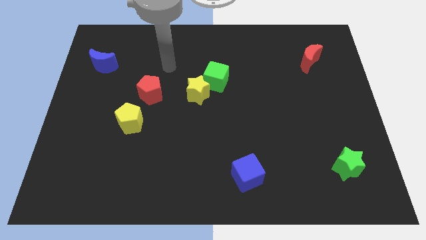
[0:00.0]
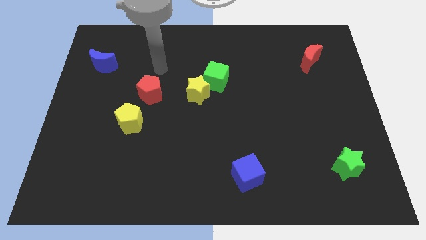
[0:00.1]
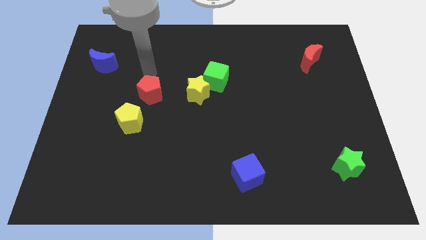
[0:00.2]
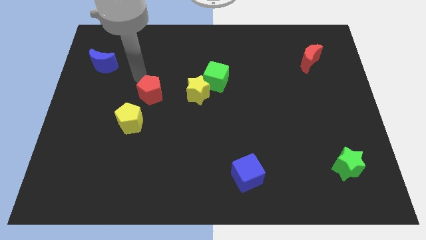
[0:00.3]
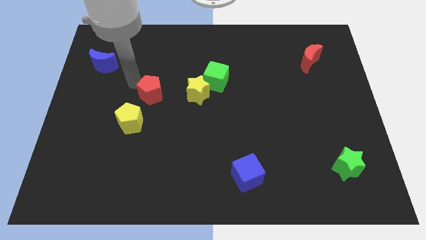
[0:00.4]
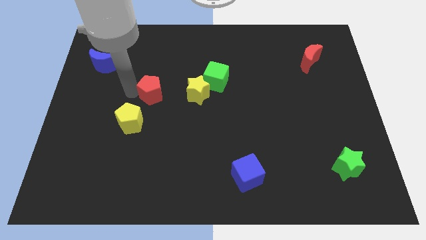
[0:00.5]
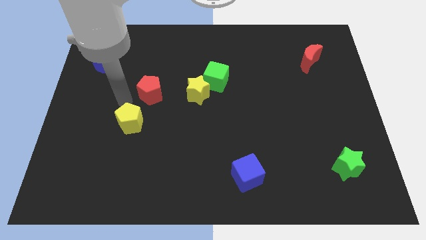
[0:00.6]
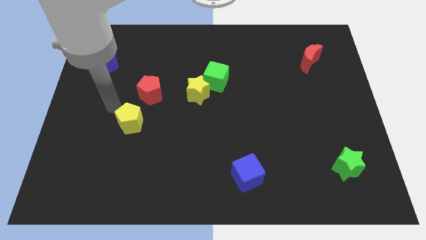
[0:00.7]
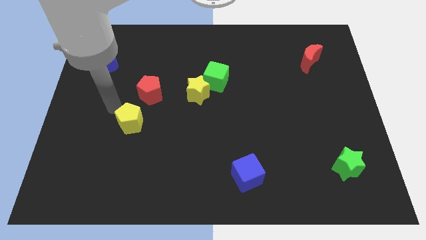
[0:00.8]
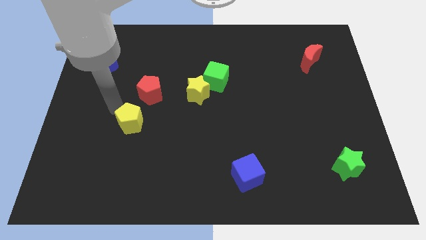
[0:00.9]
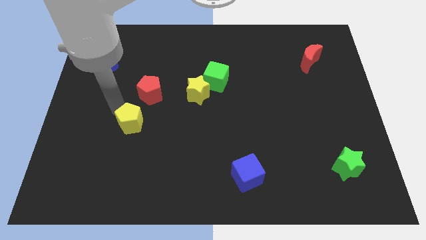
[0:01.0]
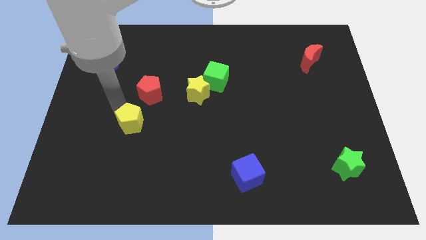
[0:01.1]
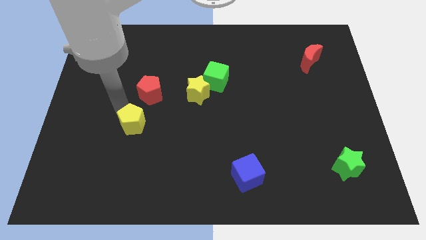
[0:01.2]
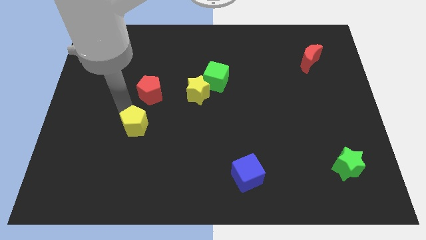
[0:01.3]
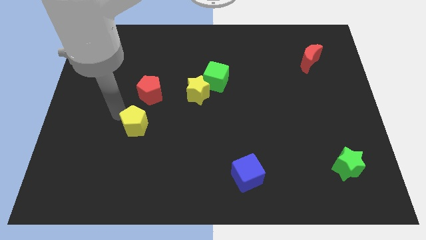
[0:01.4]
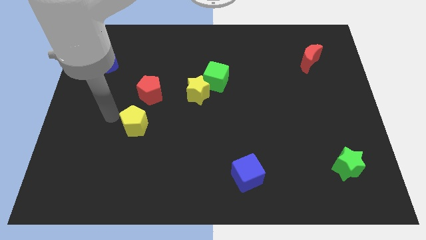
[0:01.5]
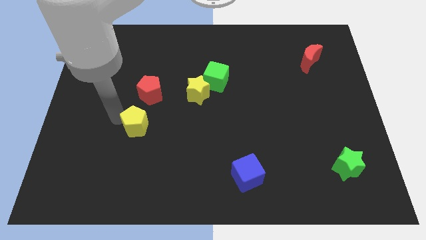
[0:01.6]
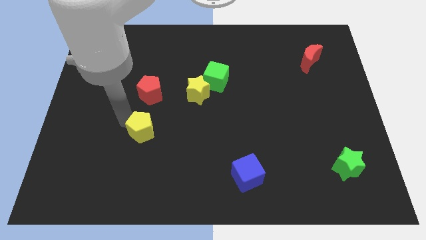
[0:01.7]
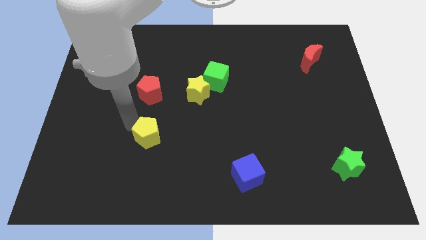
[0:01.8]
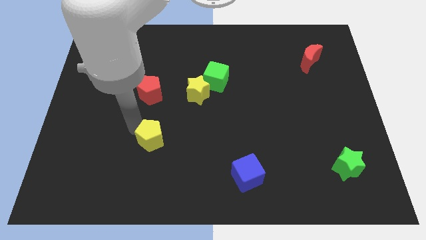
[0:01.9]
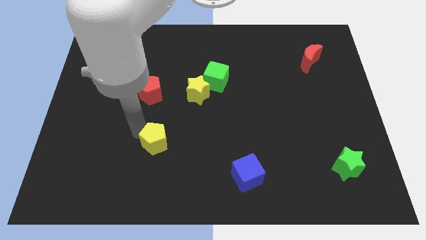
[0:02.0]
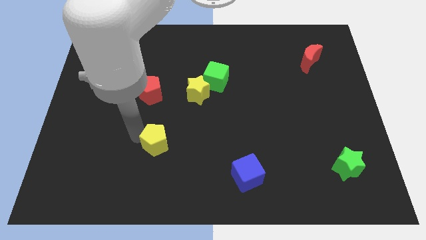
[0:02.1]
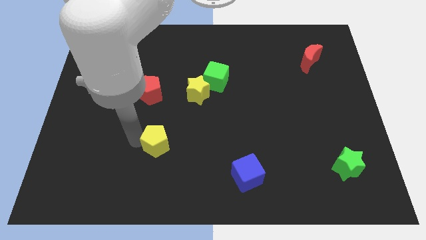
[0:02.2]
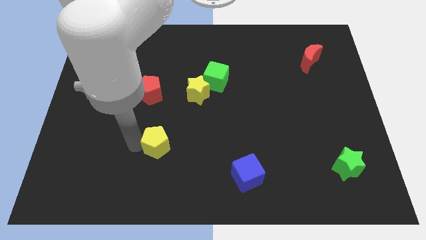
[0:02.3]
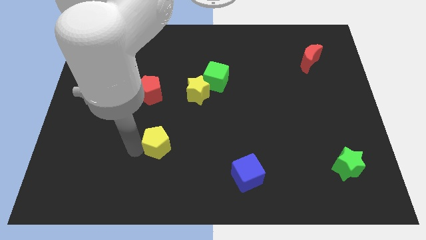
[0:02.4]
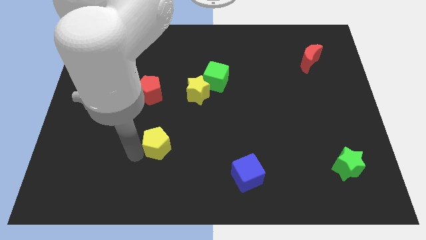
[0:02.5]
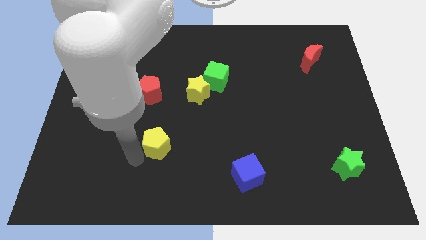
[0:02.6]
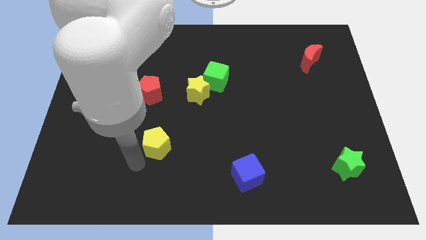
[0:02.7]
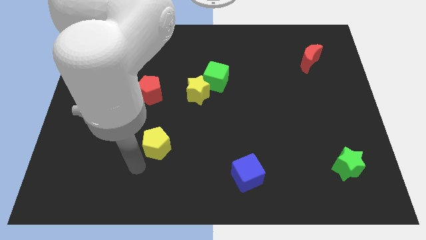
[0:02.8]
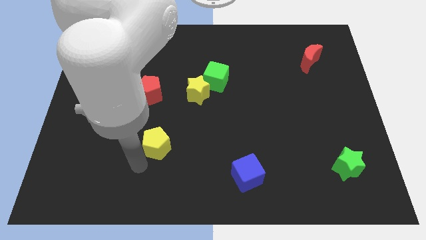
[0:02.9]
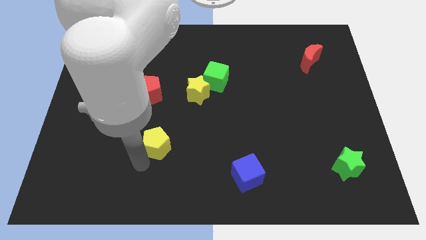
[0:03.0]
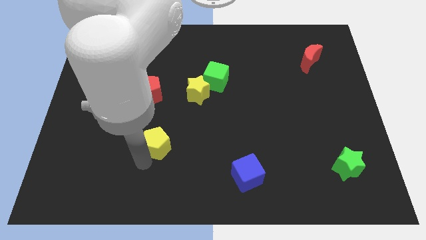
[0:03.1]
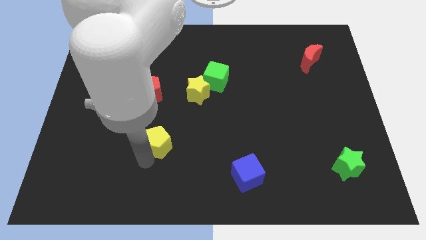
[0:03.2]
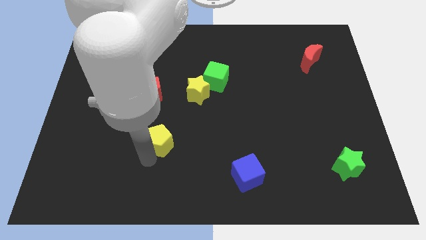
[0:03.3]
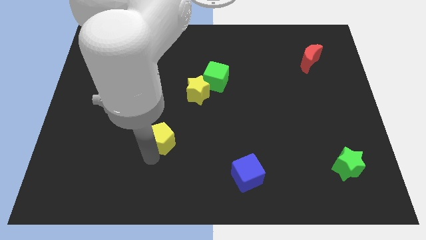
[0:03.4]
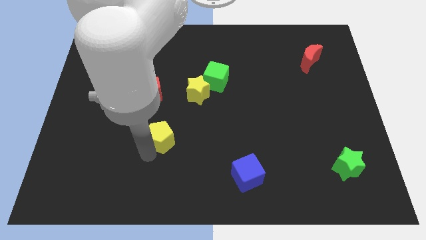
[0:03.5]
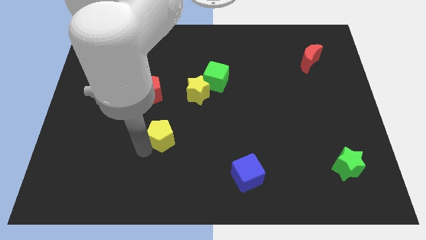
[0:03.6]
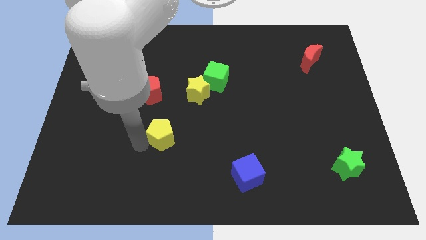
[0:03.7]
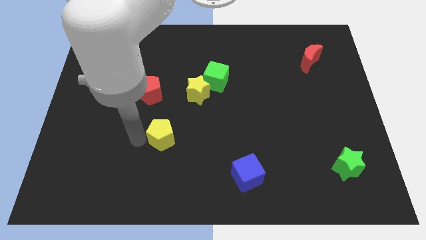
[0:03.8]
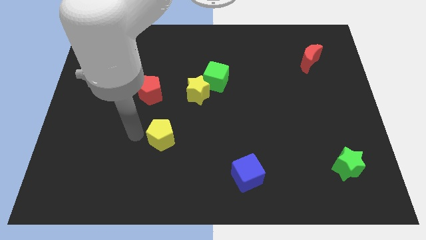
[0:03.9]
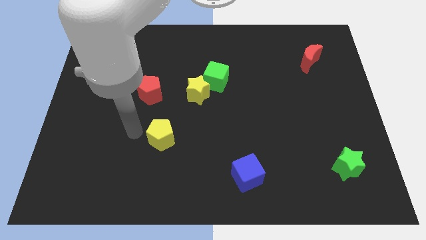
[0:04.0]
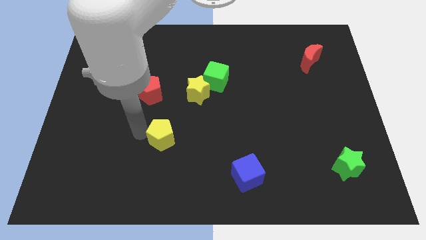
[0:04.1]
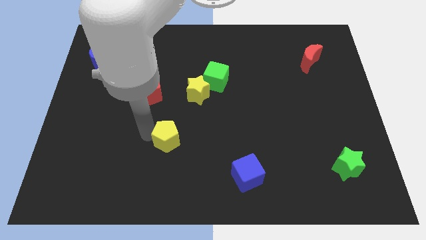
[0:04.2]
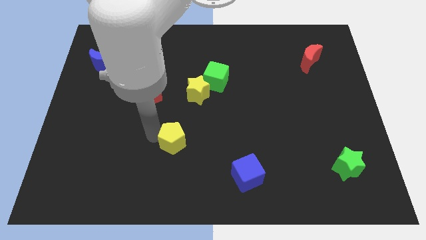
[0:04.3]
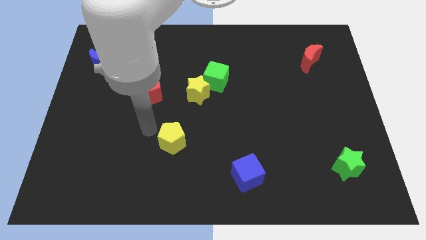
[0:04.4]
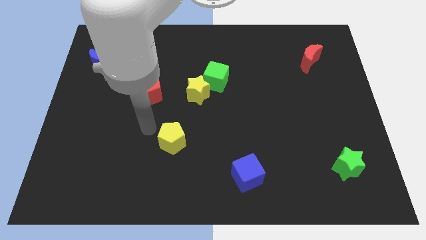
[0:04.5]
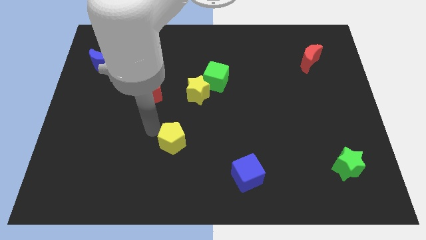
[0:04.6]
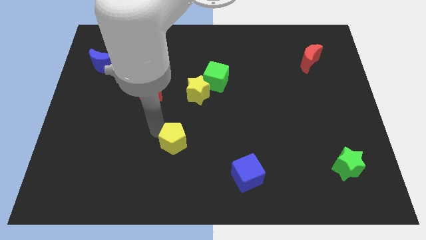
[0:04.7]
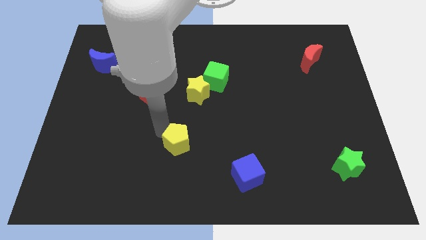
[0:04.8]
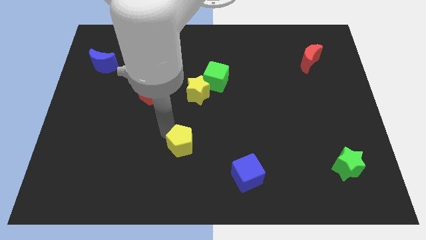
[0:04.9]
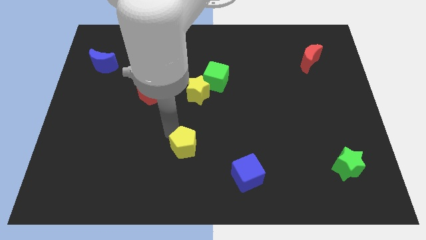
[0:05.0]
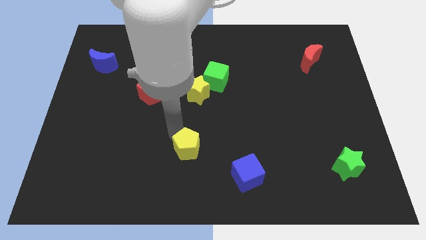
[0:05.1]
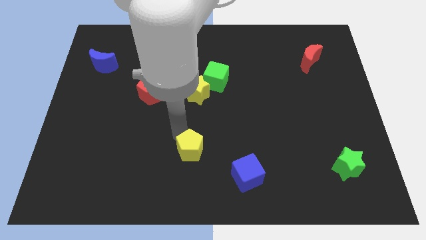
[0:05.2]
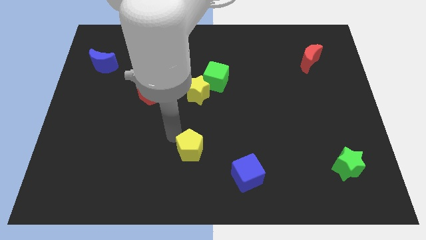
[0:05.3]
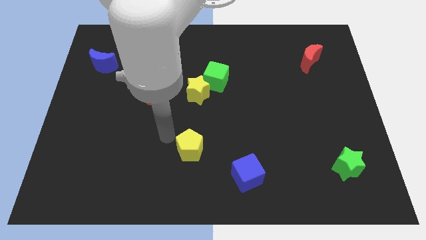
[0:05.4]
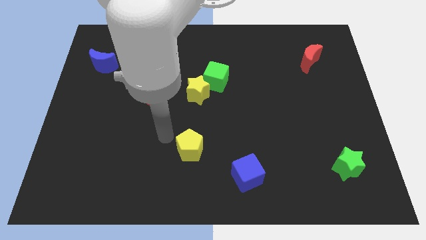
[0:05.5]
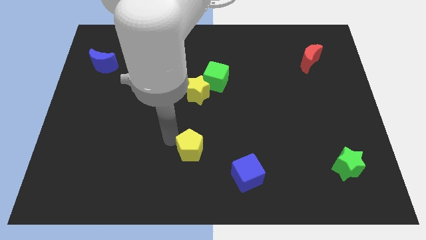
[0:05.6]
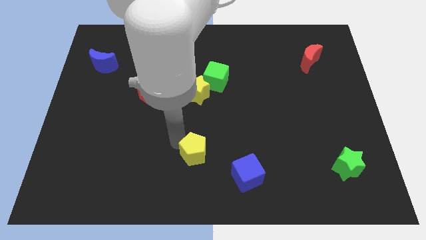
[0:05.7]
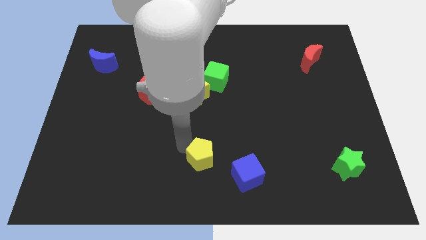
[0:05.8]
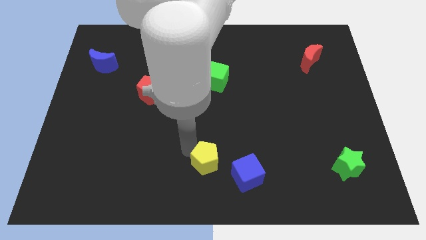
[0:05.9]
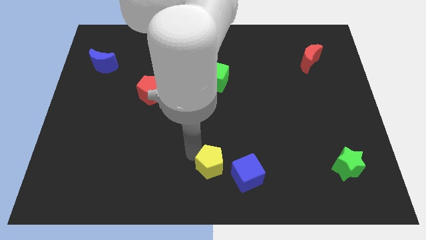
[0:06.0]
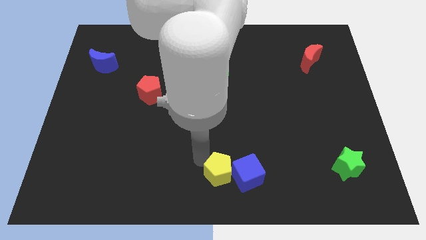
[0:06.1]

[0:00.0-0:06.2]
push the yellow pentagon close to the blue cube
